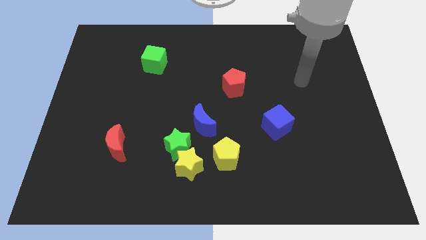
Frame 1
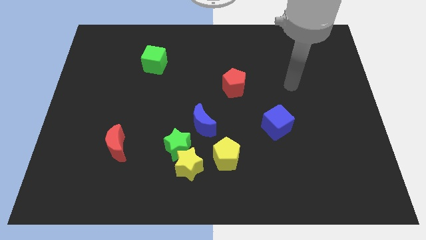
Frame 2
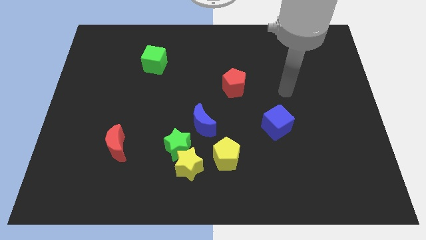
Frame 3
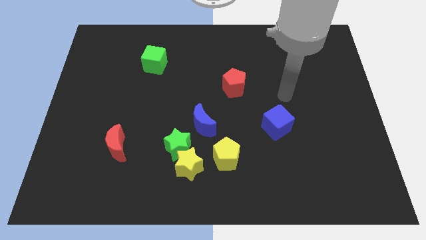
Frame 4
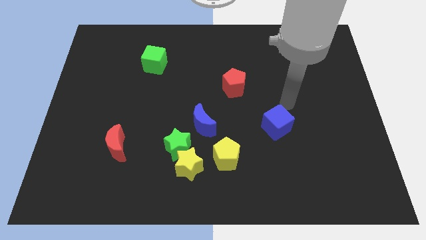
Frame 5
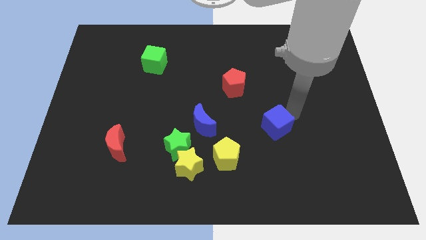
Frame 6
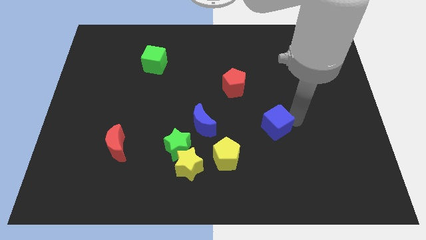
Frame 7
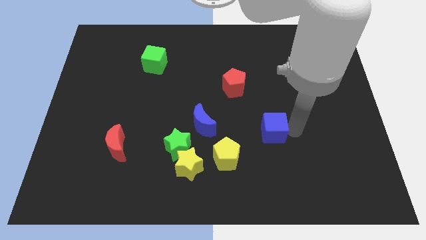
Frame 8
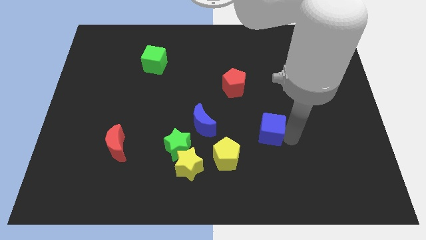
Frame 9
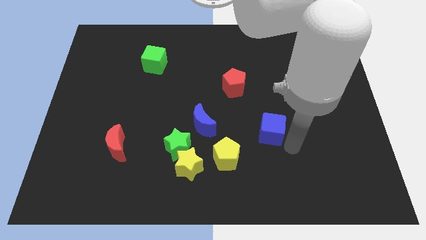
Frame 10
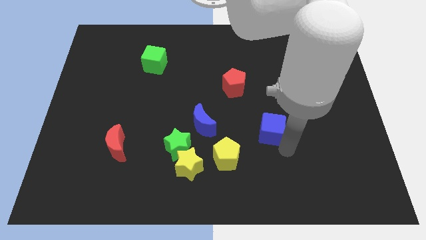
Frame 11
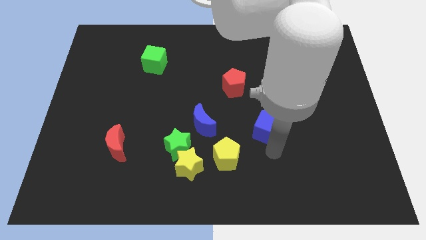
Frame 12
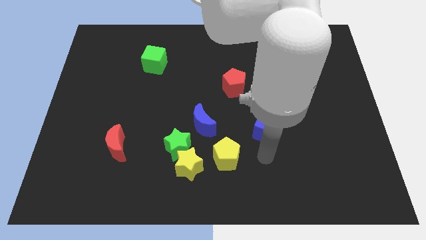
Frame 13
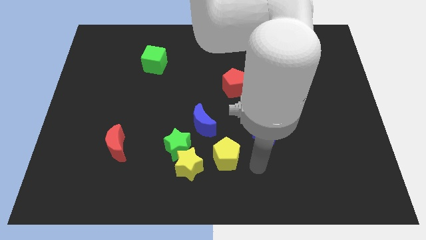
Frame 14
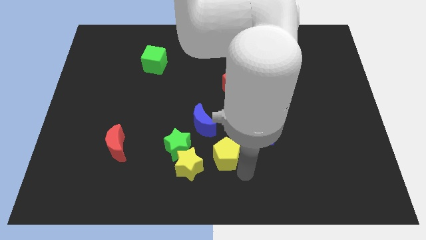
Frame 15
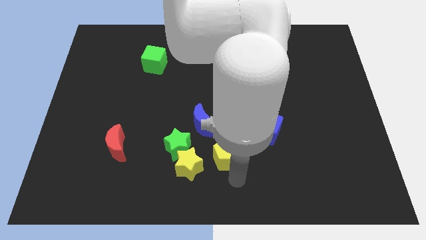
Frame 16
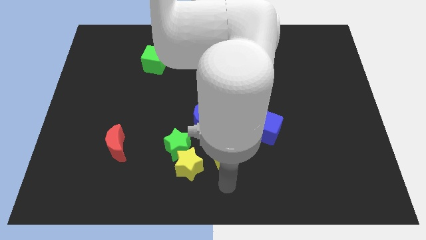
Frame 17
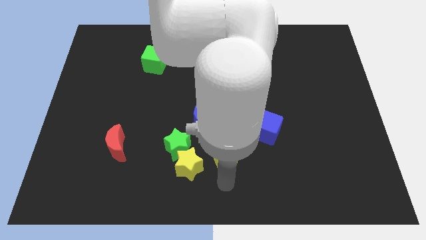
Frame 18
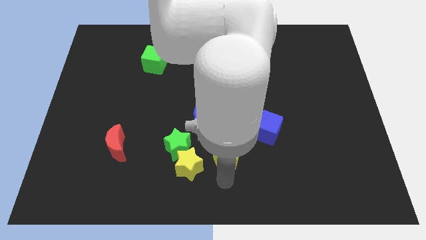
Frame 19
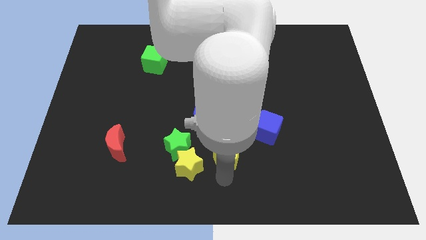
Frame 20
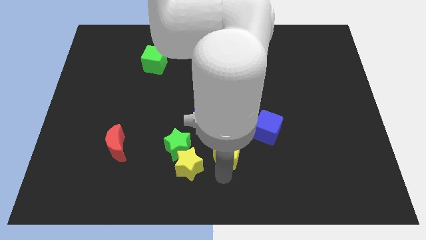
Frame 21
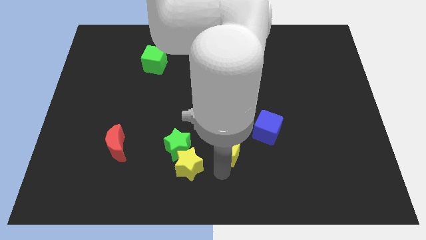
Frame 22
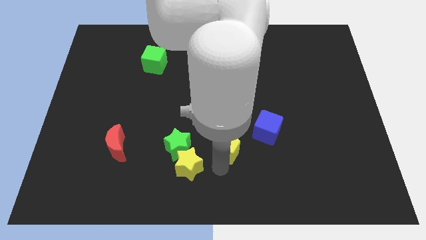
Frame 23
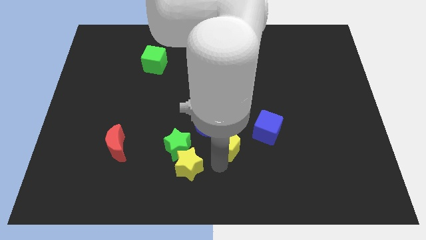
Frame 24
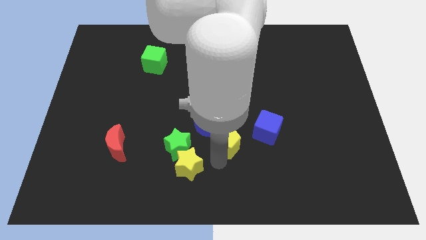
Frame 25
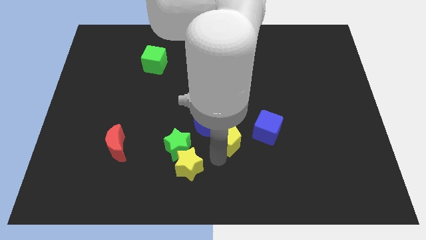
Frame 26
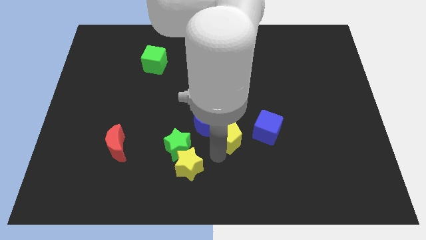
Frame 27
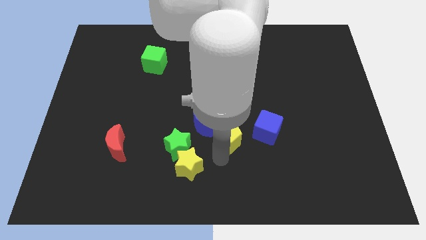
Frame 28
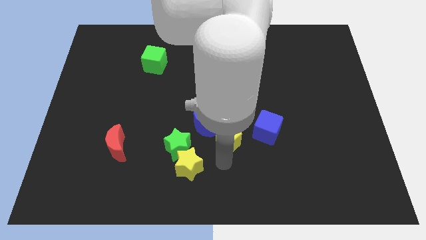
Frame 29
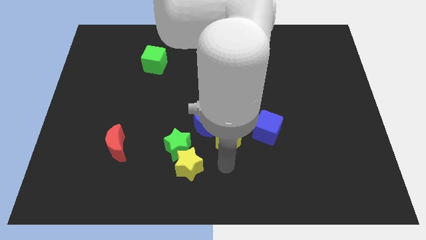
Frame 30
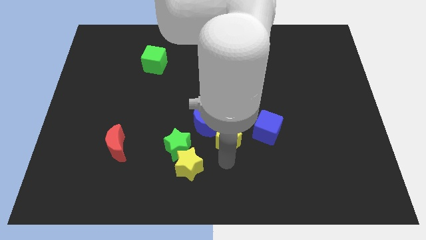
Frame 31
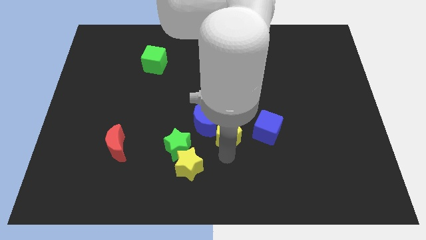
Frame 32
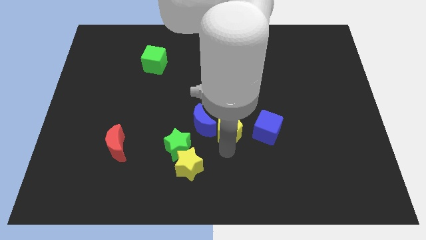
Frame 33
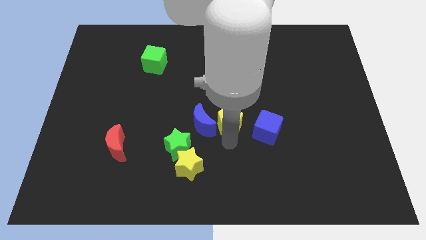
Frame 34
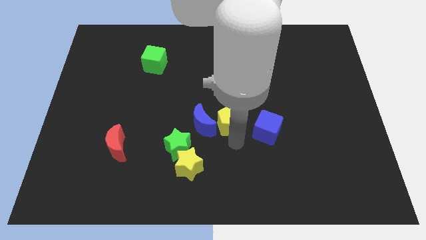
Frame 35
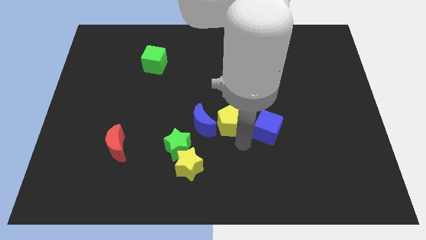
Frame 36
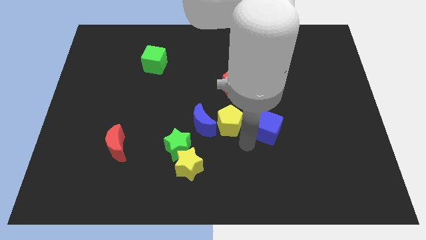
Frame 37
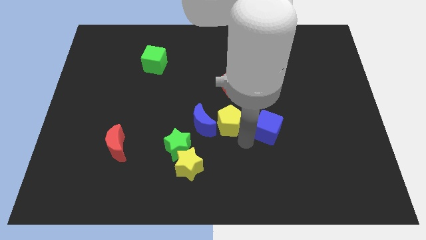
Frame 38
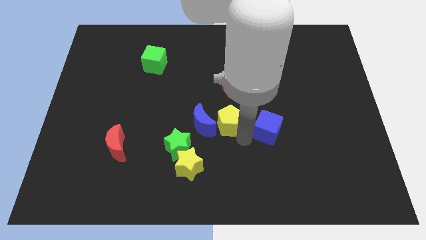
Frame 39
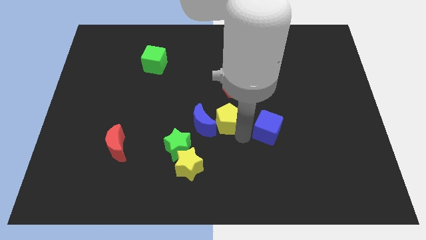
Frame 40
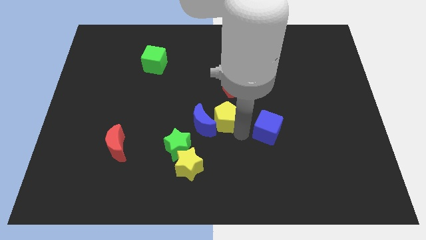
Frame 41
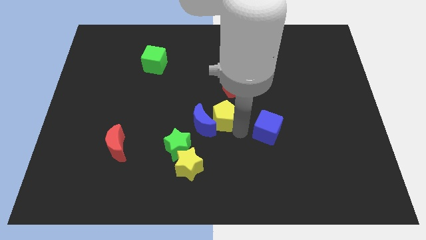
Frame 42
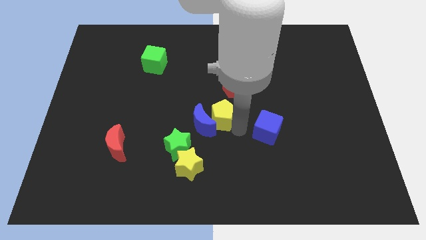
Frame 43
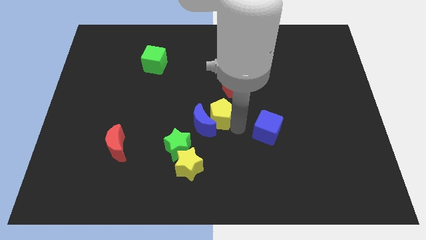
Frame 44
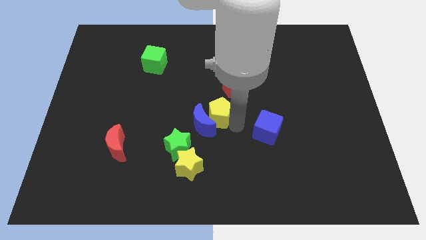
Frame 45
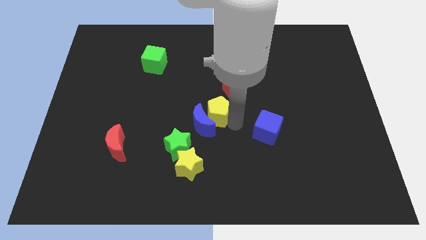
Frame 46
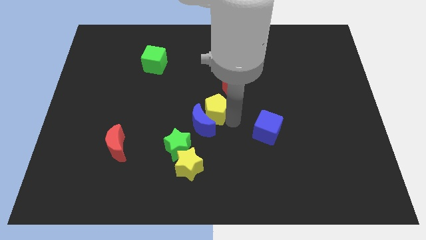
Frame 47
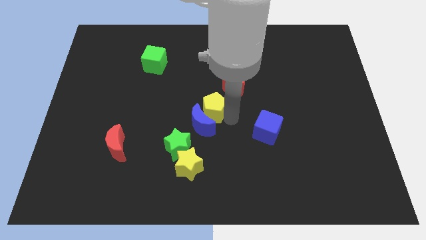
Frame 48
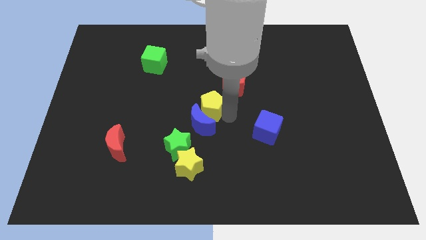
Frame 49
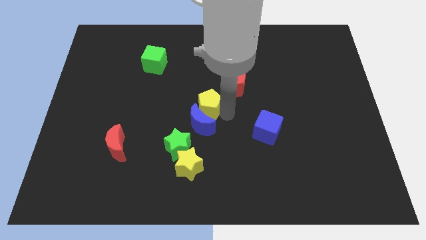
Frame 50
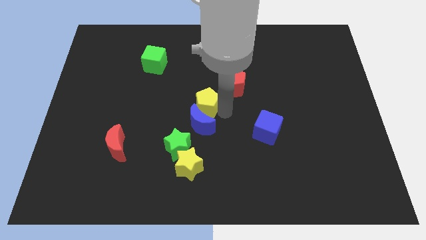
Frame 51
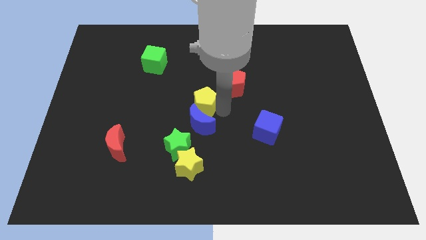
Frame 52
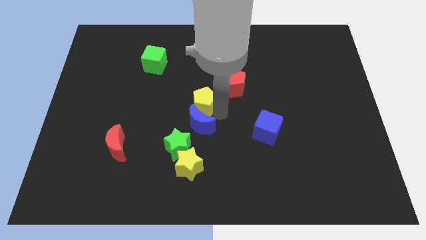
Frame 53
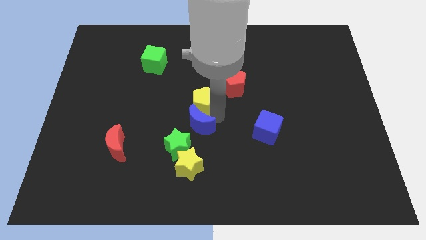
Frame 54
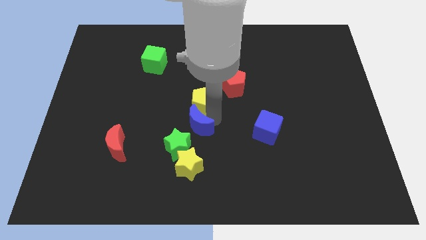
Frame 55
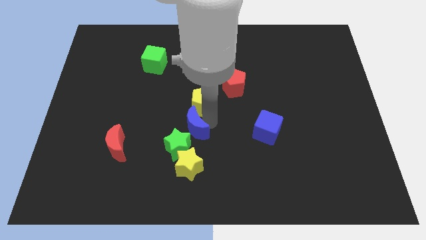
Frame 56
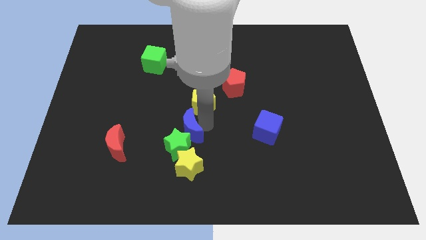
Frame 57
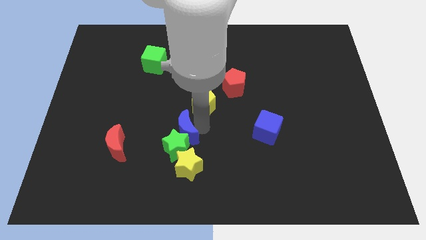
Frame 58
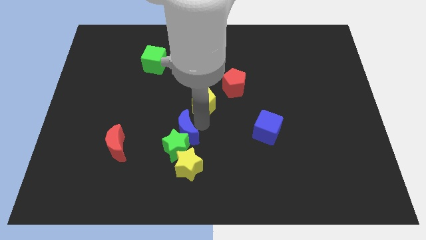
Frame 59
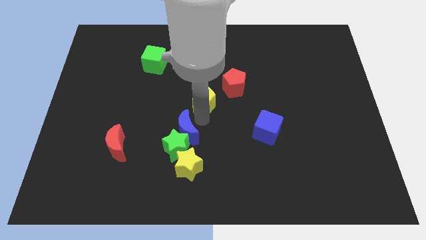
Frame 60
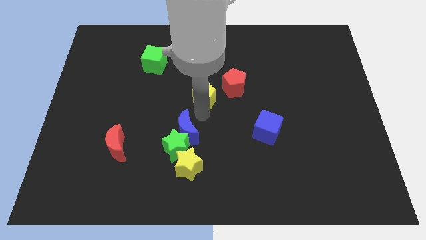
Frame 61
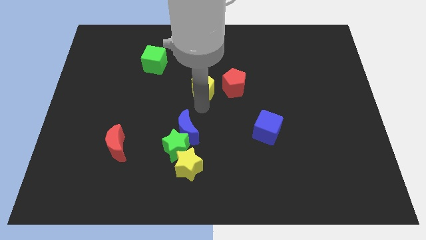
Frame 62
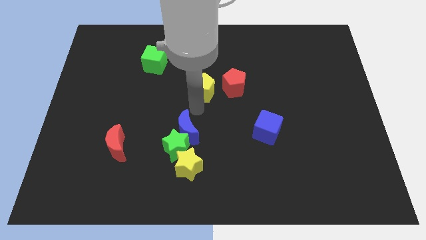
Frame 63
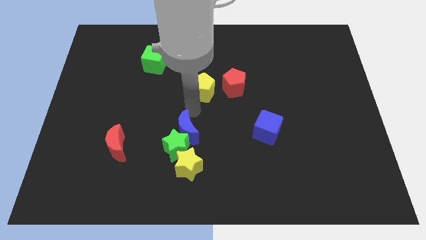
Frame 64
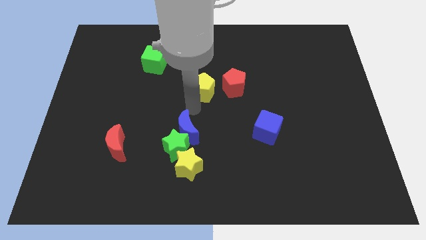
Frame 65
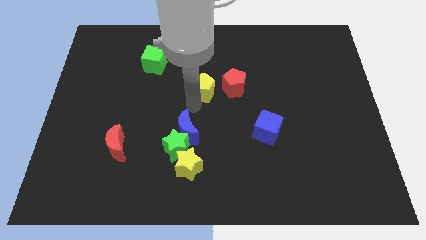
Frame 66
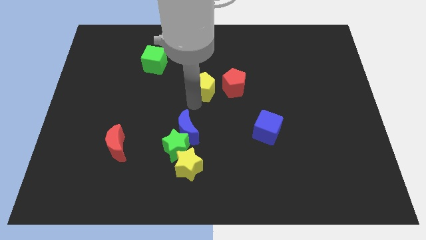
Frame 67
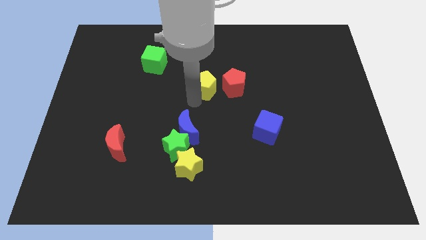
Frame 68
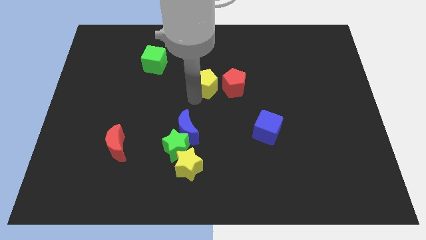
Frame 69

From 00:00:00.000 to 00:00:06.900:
slide the yellow pentagon to the top left side of the red pentagon
